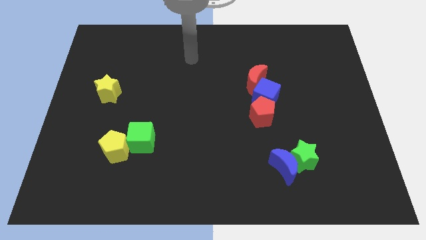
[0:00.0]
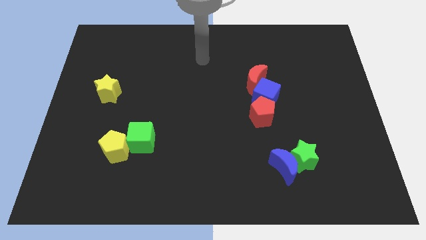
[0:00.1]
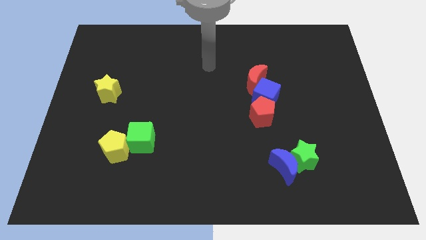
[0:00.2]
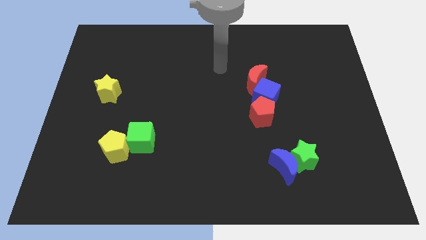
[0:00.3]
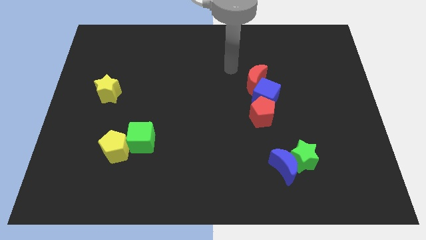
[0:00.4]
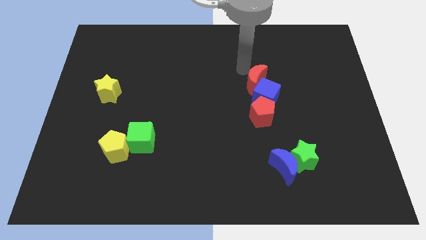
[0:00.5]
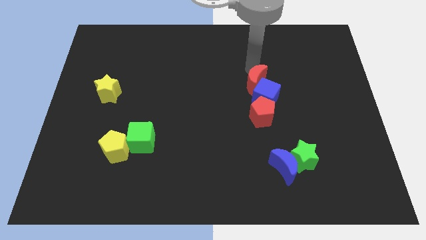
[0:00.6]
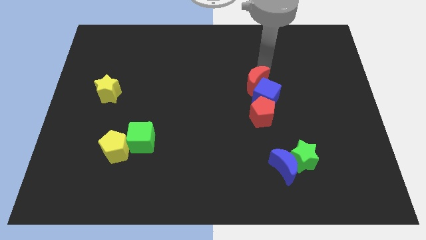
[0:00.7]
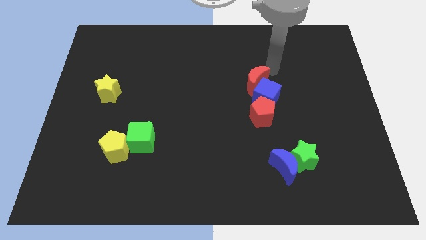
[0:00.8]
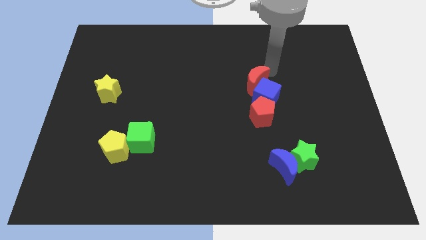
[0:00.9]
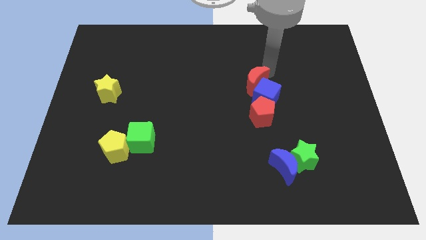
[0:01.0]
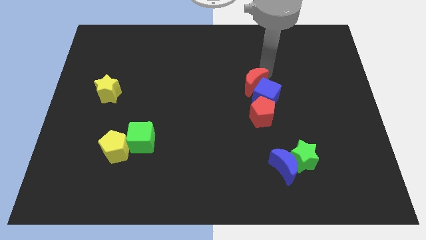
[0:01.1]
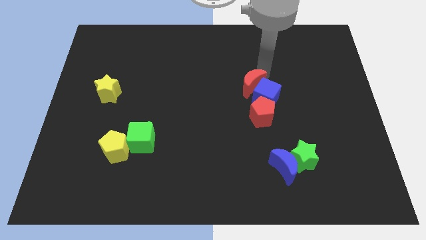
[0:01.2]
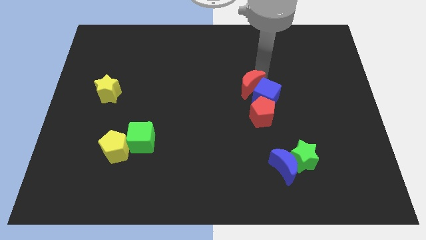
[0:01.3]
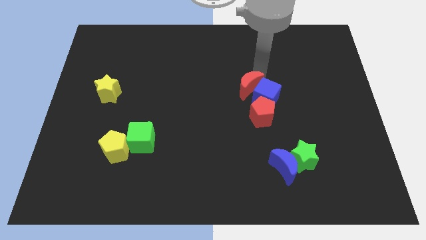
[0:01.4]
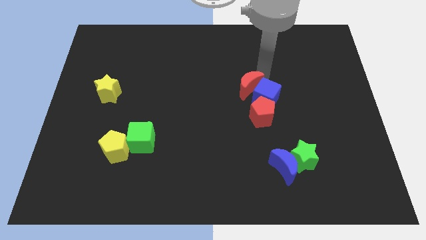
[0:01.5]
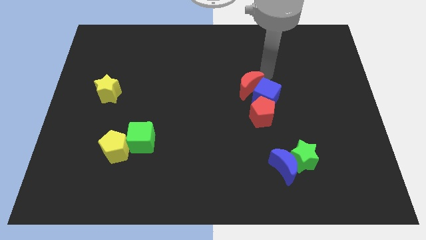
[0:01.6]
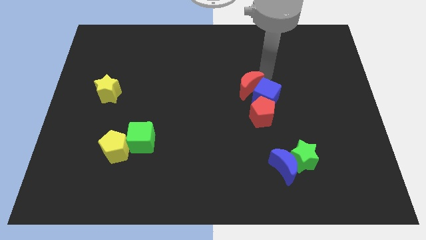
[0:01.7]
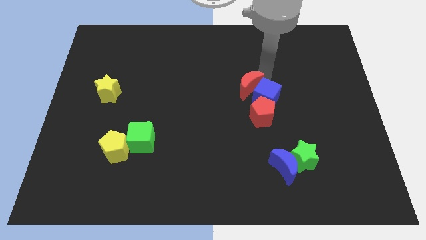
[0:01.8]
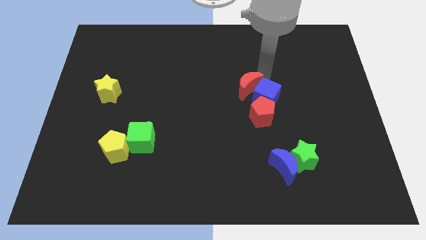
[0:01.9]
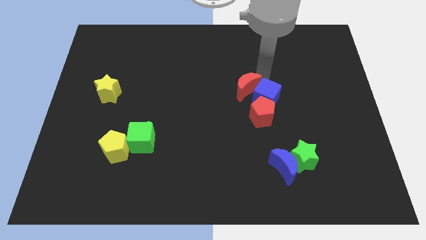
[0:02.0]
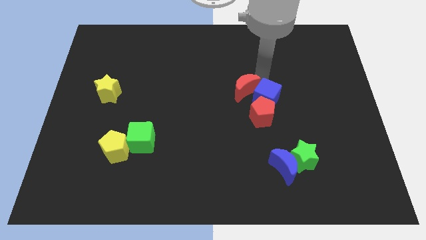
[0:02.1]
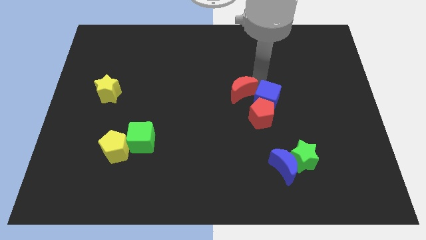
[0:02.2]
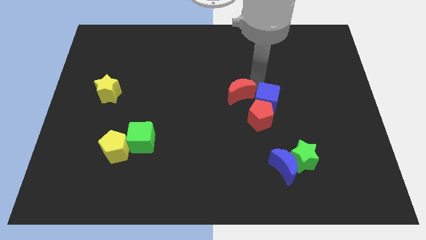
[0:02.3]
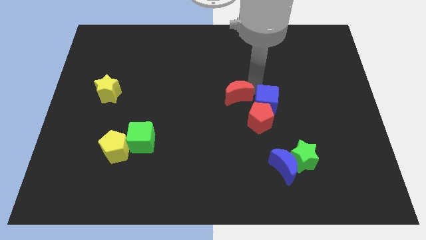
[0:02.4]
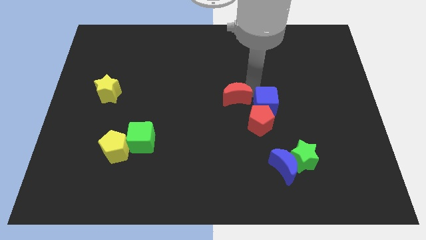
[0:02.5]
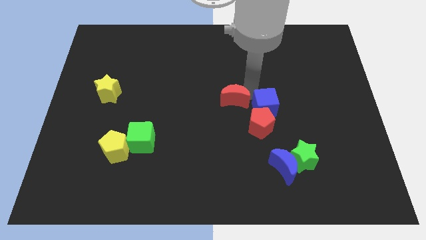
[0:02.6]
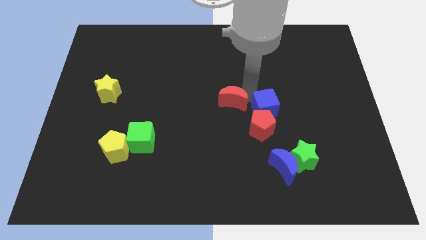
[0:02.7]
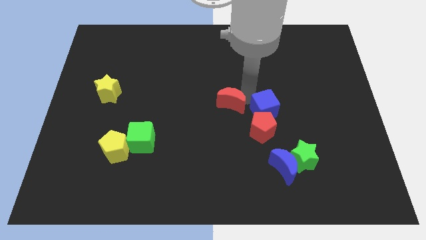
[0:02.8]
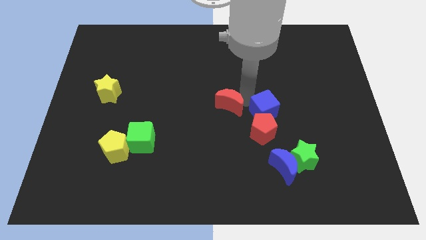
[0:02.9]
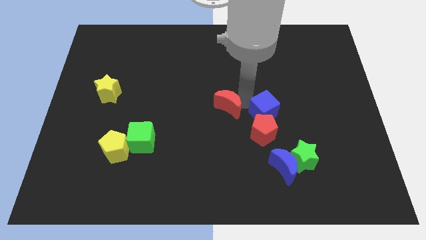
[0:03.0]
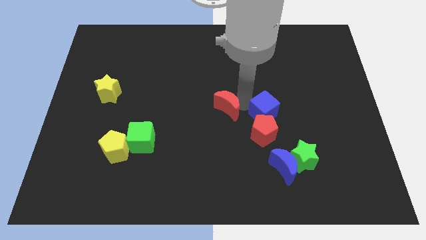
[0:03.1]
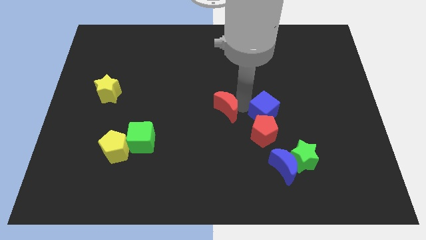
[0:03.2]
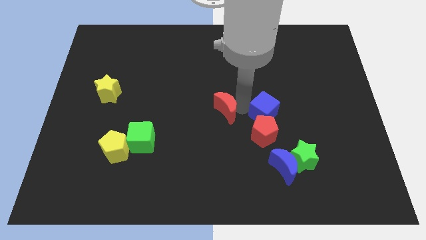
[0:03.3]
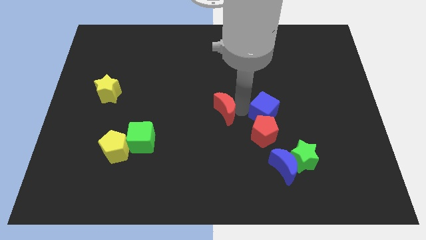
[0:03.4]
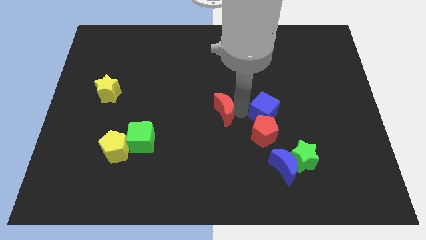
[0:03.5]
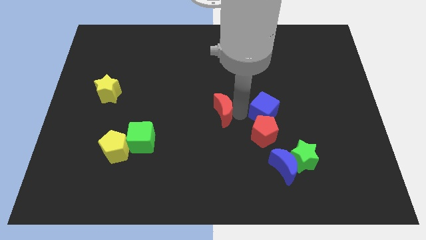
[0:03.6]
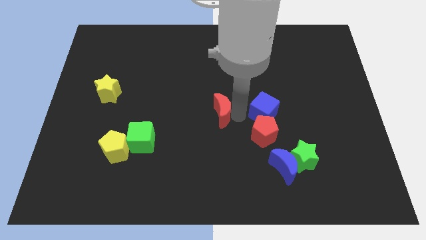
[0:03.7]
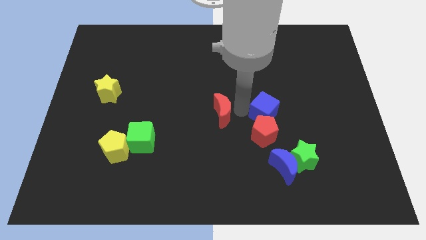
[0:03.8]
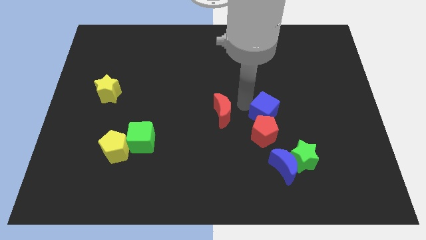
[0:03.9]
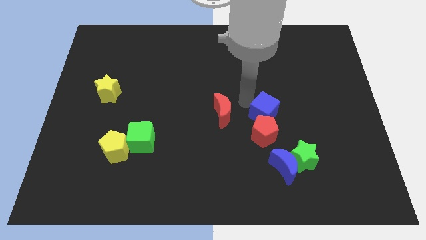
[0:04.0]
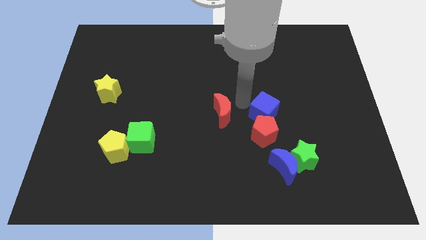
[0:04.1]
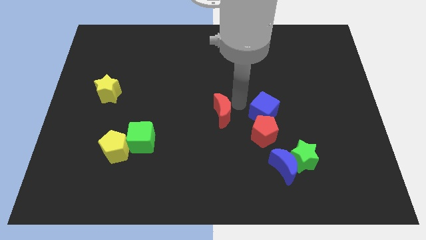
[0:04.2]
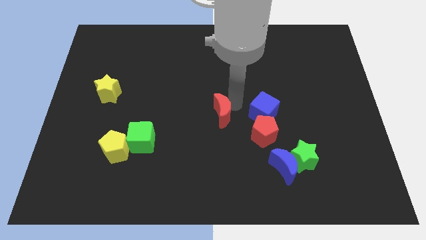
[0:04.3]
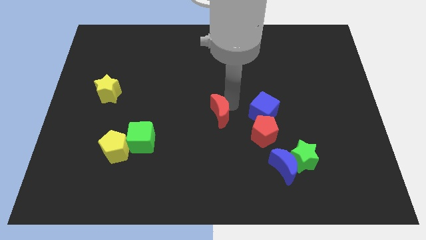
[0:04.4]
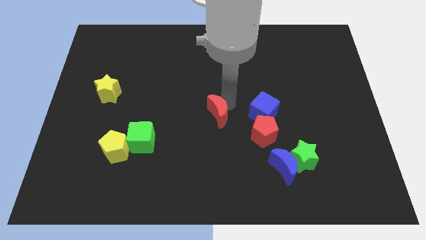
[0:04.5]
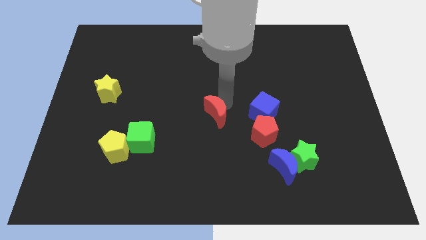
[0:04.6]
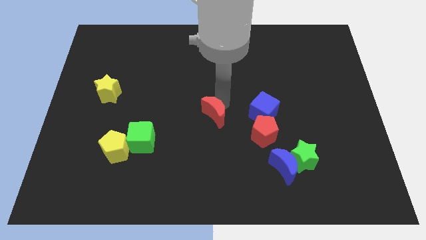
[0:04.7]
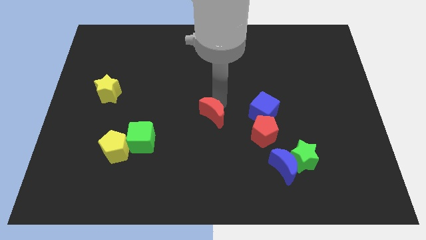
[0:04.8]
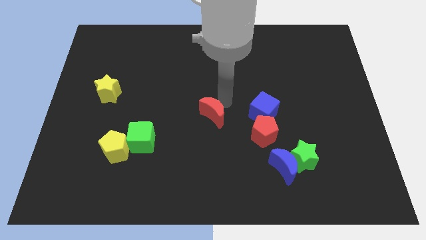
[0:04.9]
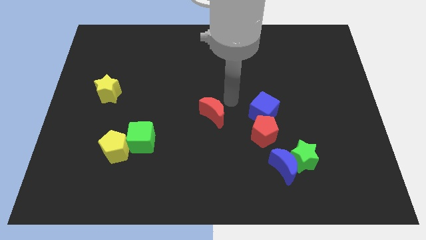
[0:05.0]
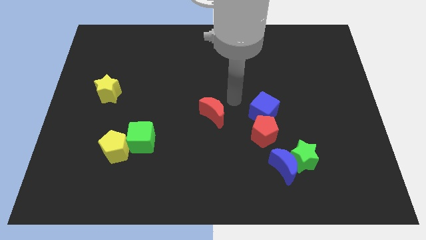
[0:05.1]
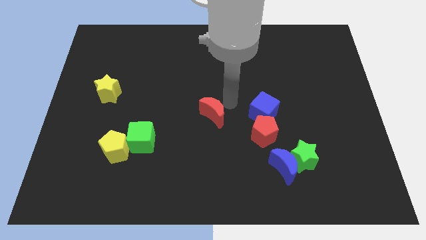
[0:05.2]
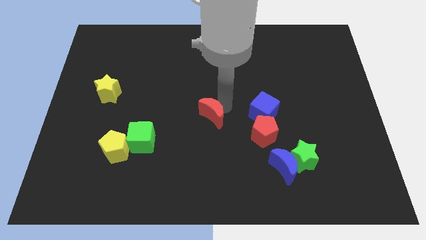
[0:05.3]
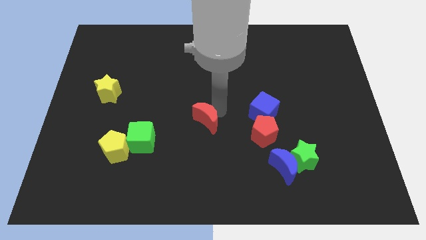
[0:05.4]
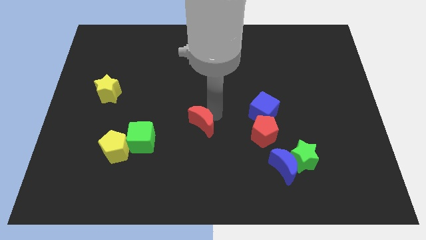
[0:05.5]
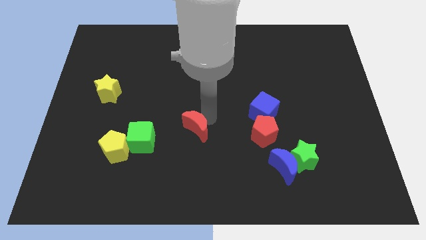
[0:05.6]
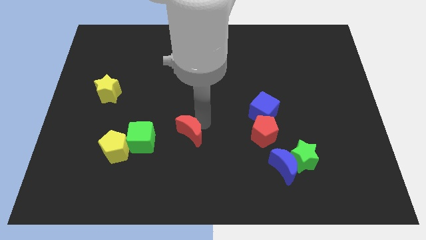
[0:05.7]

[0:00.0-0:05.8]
push the red moon downwards and then left

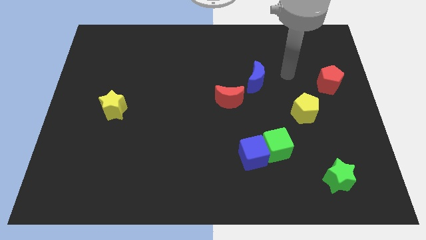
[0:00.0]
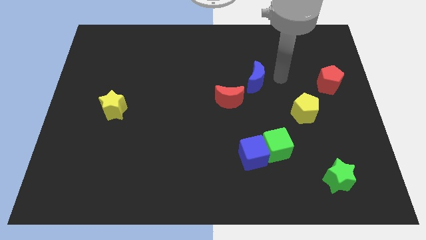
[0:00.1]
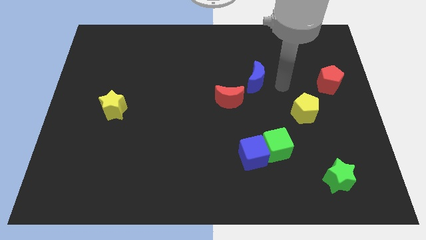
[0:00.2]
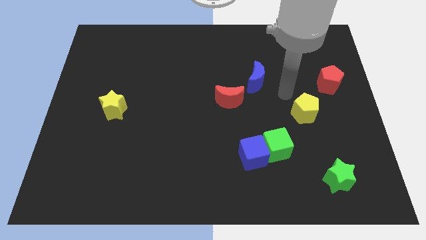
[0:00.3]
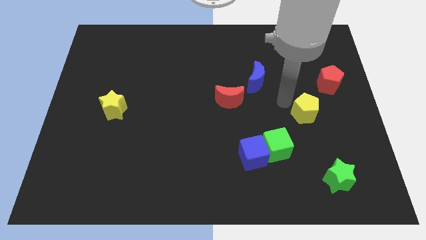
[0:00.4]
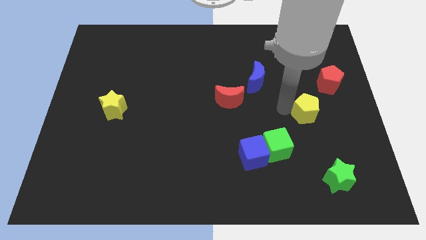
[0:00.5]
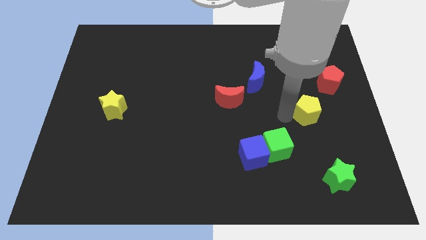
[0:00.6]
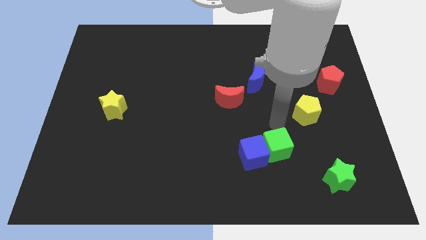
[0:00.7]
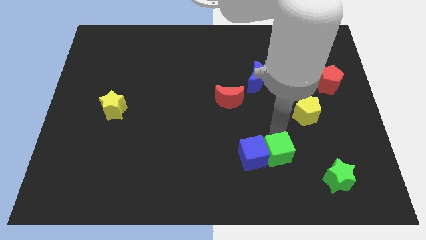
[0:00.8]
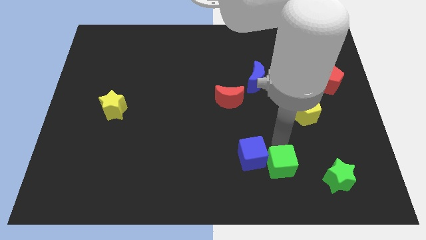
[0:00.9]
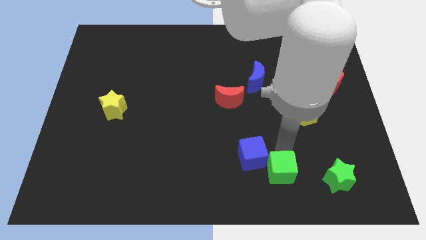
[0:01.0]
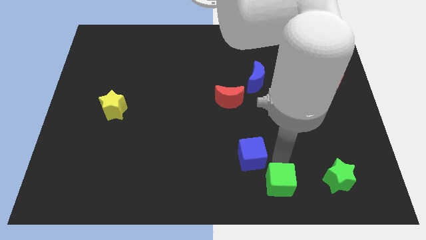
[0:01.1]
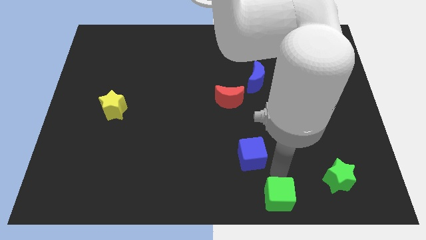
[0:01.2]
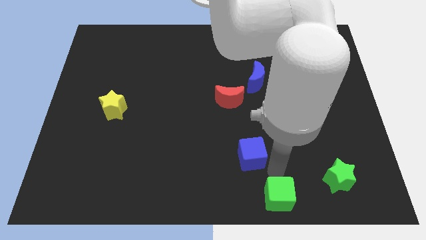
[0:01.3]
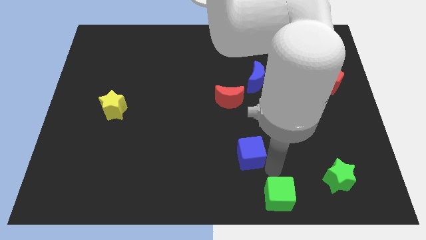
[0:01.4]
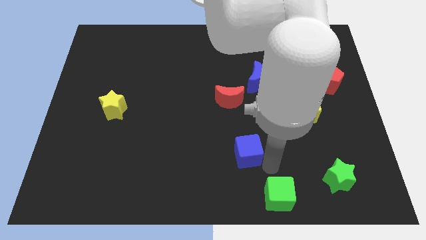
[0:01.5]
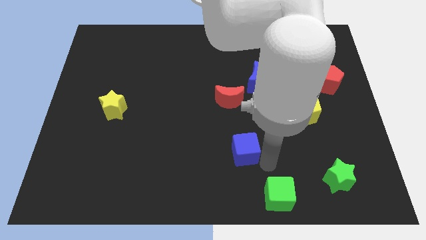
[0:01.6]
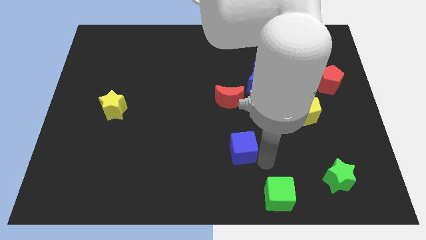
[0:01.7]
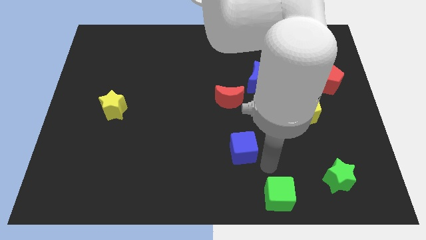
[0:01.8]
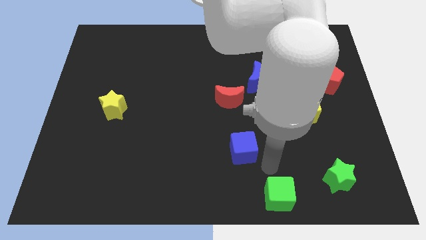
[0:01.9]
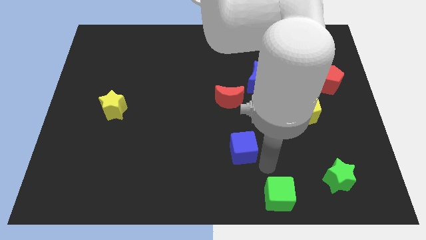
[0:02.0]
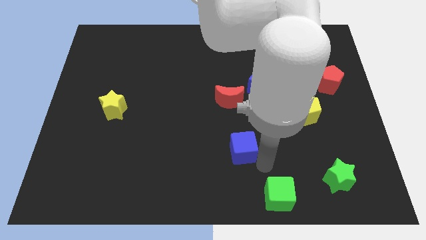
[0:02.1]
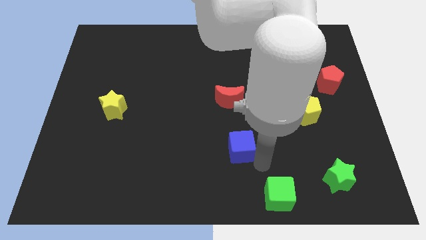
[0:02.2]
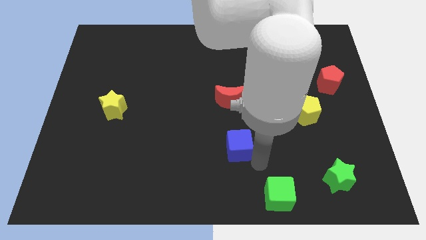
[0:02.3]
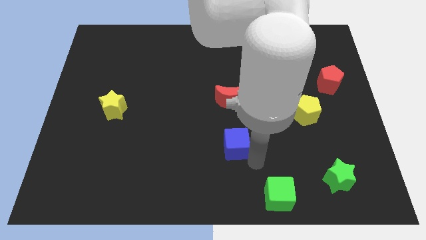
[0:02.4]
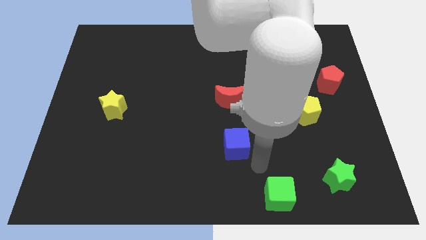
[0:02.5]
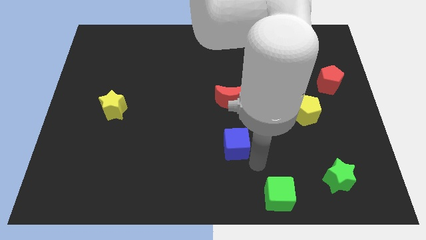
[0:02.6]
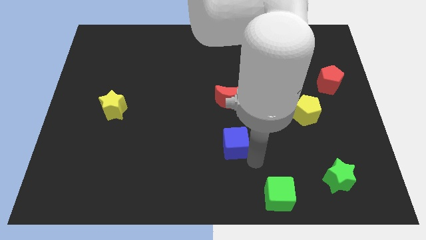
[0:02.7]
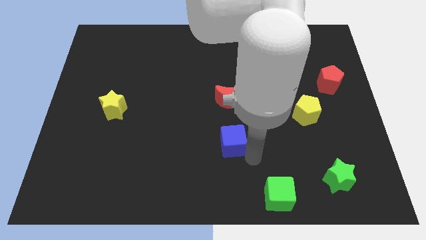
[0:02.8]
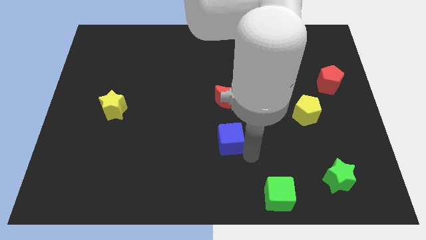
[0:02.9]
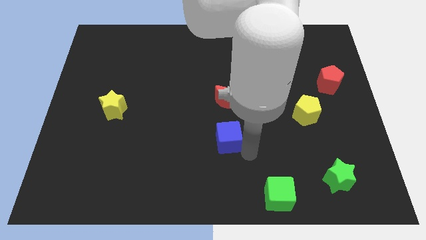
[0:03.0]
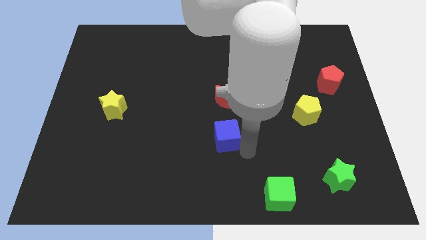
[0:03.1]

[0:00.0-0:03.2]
slide the blue cube up and to the left a little bit
